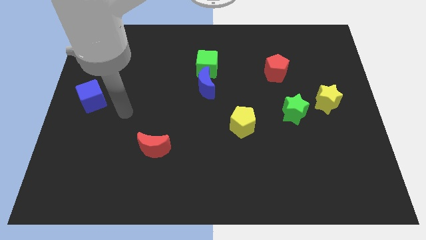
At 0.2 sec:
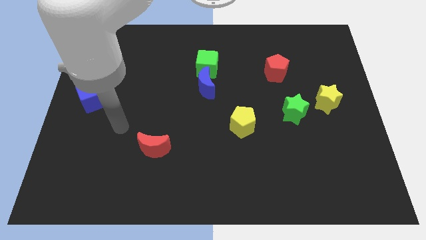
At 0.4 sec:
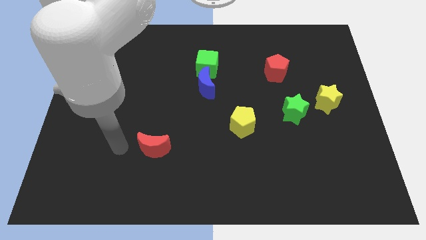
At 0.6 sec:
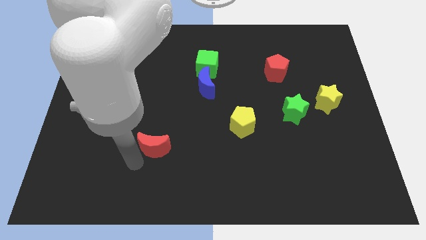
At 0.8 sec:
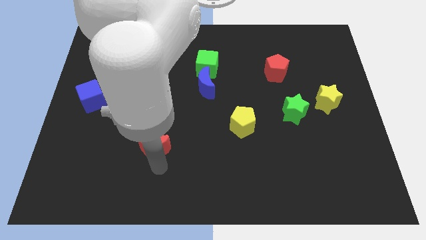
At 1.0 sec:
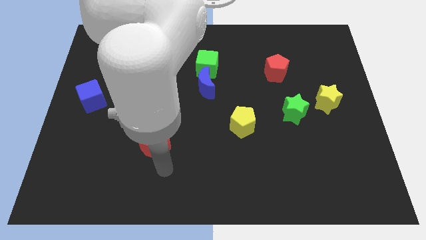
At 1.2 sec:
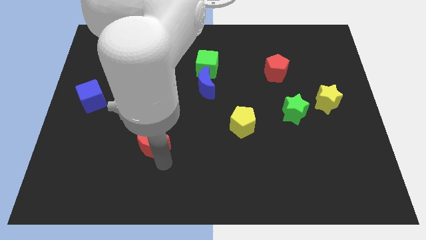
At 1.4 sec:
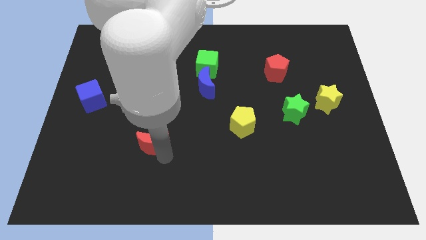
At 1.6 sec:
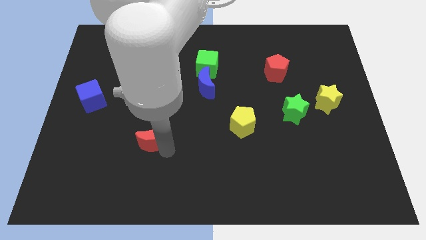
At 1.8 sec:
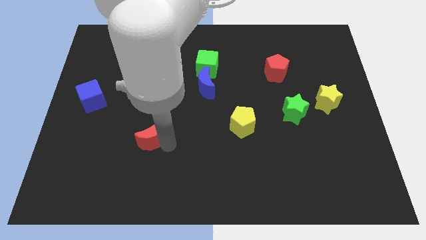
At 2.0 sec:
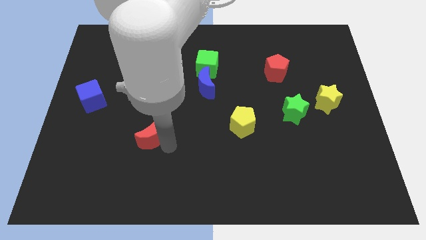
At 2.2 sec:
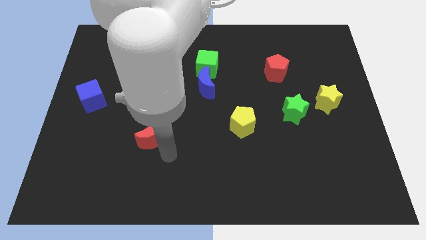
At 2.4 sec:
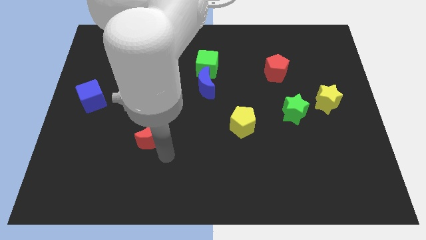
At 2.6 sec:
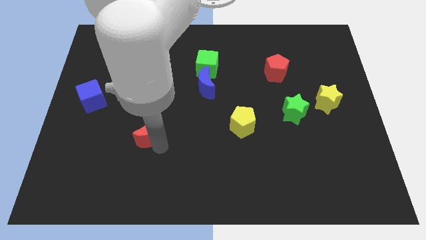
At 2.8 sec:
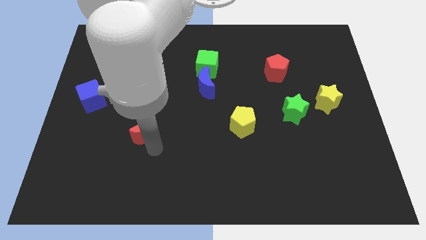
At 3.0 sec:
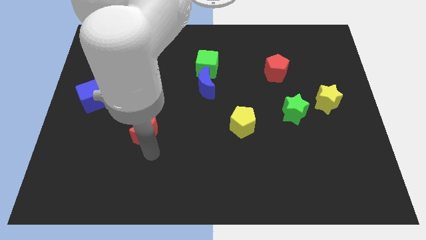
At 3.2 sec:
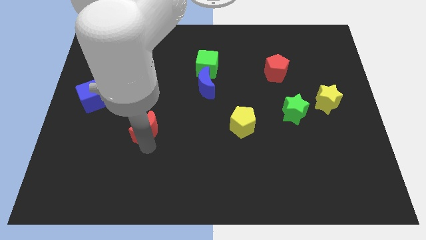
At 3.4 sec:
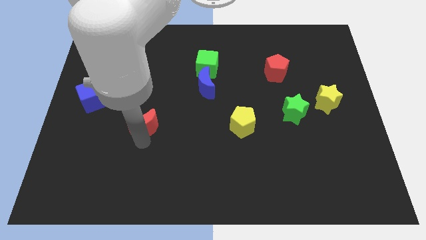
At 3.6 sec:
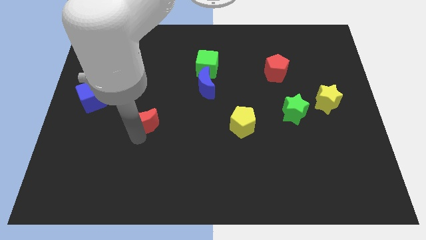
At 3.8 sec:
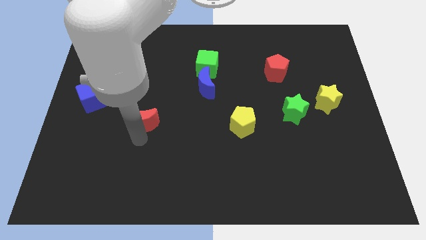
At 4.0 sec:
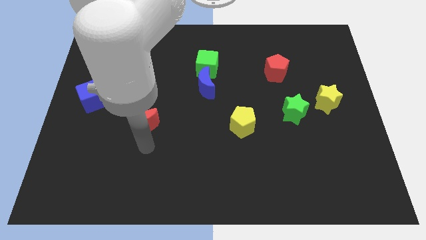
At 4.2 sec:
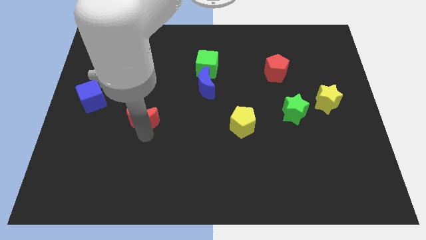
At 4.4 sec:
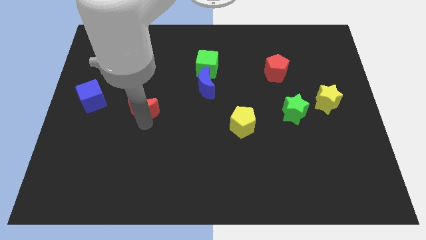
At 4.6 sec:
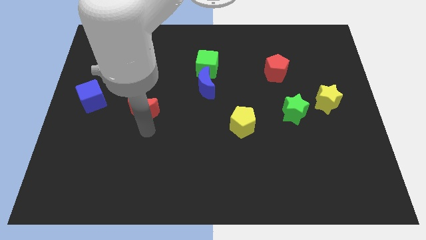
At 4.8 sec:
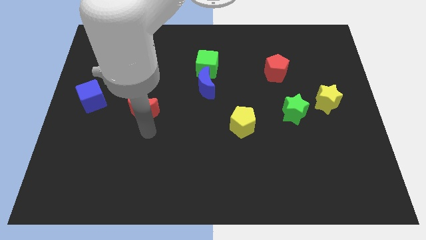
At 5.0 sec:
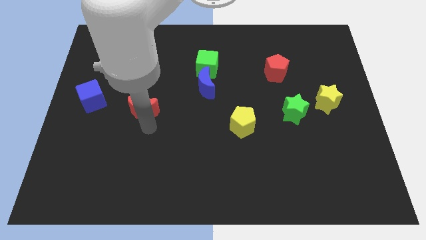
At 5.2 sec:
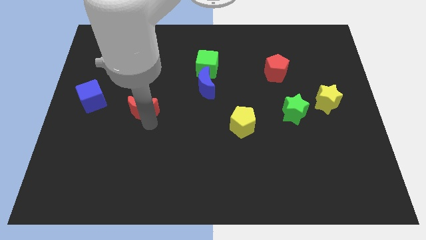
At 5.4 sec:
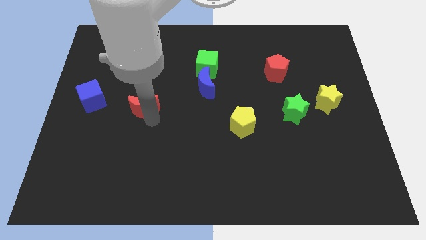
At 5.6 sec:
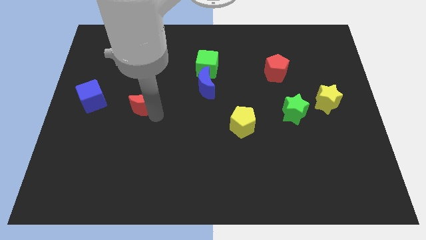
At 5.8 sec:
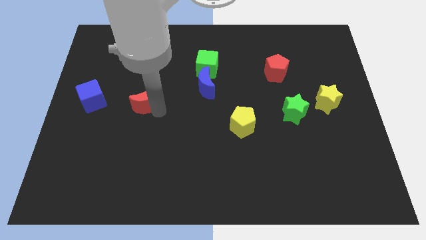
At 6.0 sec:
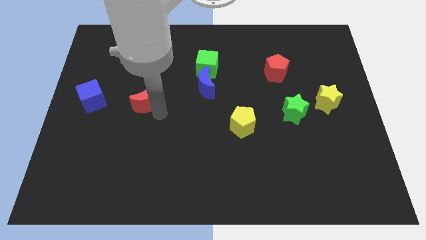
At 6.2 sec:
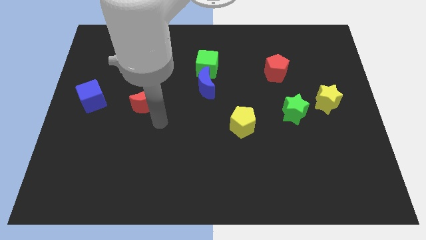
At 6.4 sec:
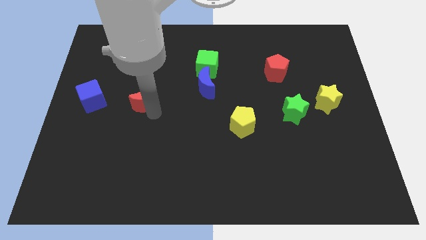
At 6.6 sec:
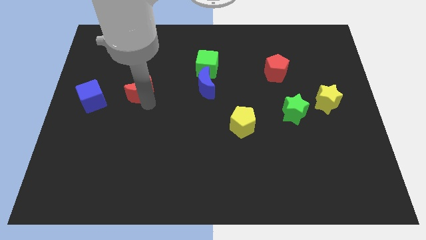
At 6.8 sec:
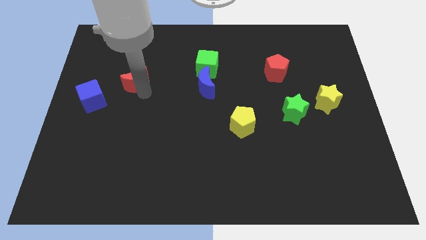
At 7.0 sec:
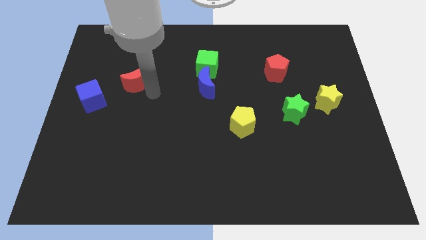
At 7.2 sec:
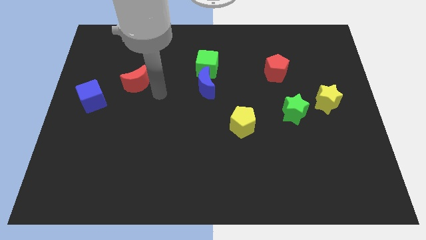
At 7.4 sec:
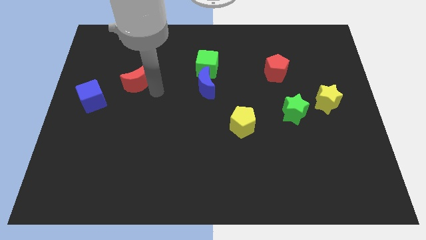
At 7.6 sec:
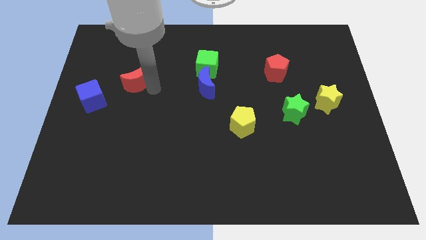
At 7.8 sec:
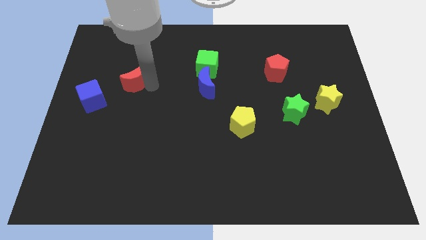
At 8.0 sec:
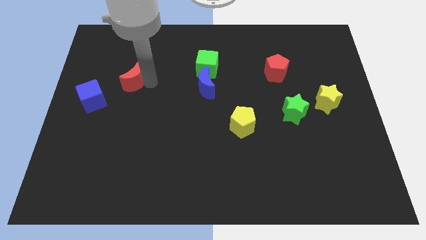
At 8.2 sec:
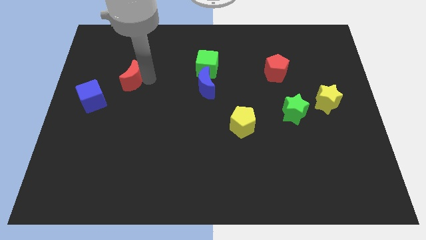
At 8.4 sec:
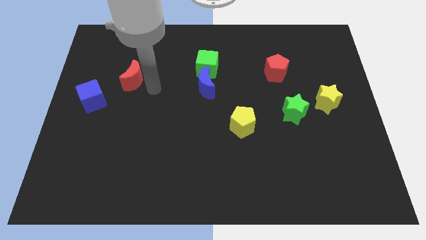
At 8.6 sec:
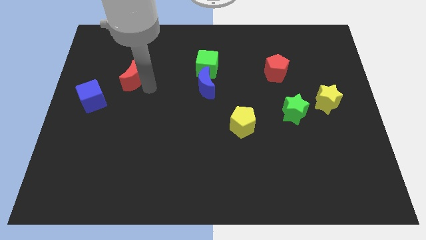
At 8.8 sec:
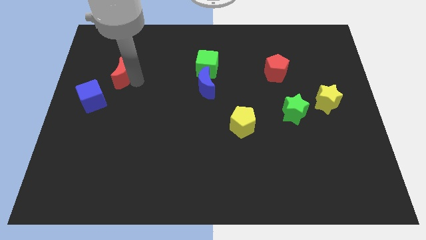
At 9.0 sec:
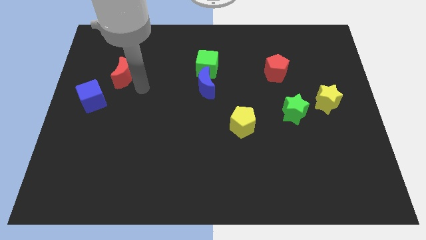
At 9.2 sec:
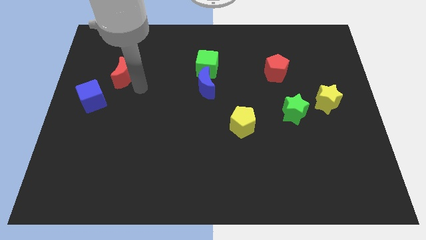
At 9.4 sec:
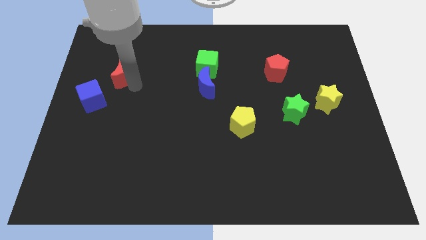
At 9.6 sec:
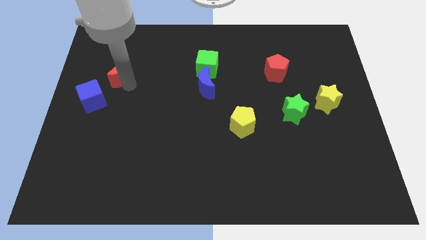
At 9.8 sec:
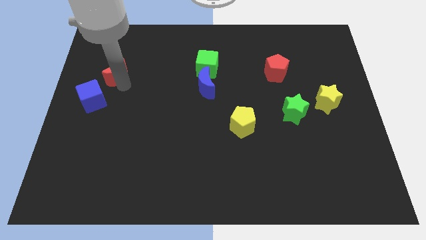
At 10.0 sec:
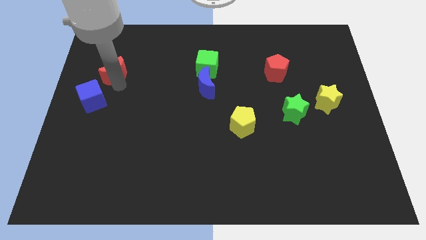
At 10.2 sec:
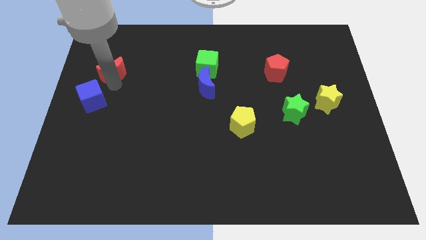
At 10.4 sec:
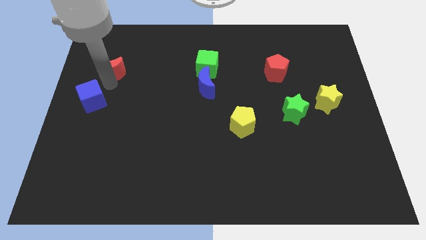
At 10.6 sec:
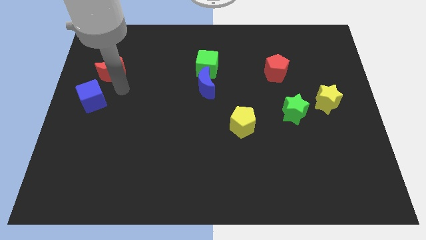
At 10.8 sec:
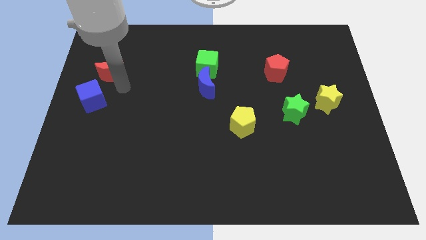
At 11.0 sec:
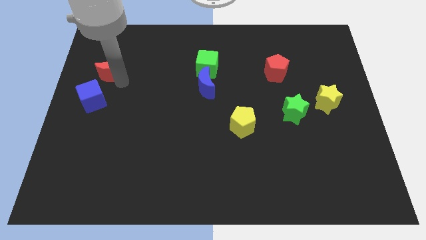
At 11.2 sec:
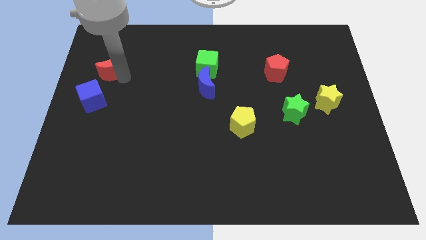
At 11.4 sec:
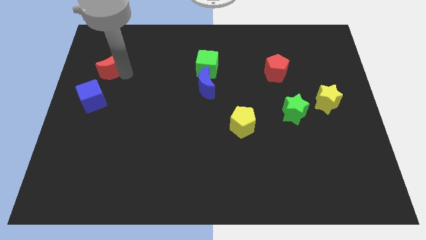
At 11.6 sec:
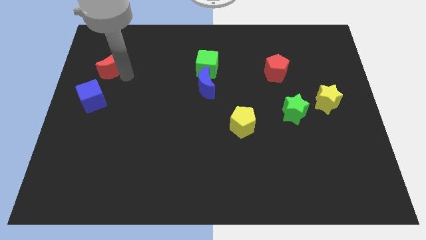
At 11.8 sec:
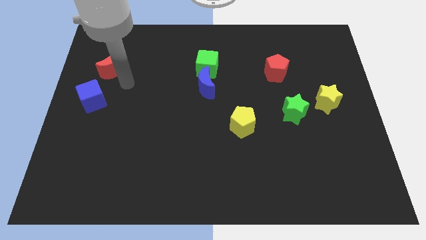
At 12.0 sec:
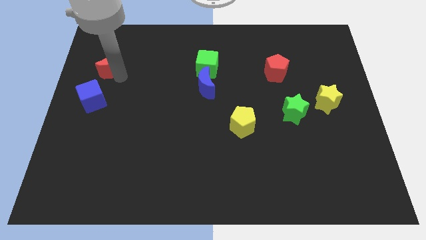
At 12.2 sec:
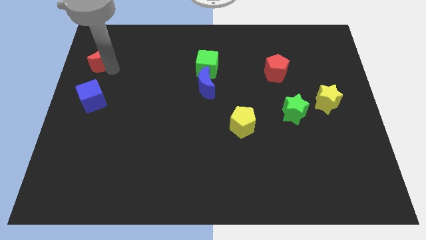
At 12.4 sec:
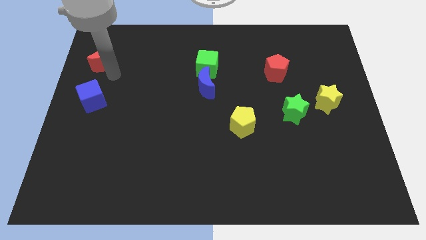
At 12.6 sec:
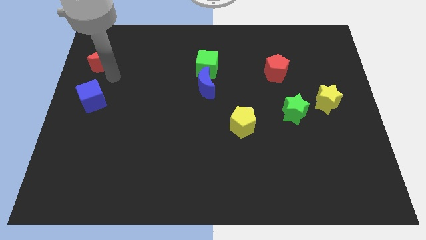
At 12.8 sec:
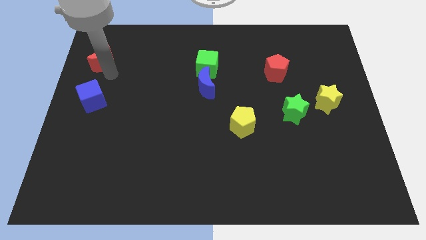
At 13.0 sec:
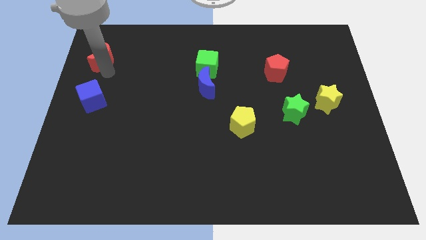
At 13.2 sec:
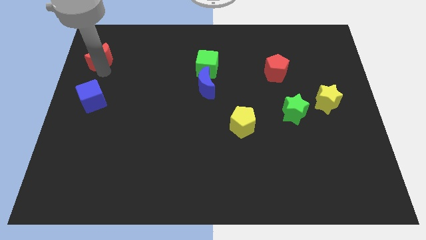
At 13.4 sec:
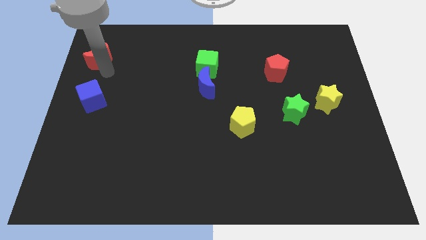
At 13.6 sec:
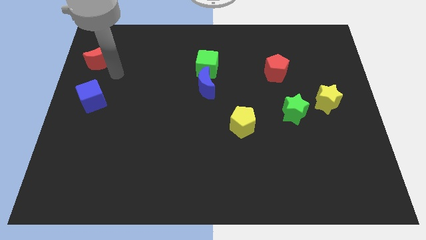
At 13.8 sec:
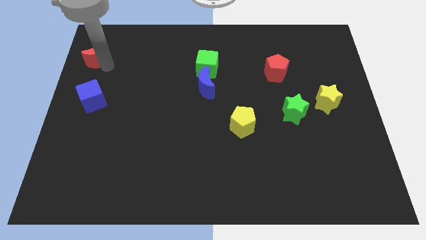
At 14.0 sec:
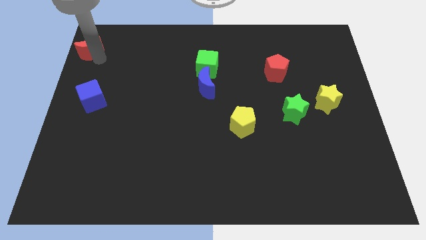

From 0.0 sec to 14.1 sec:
slide the red moon to the top left
